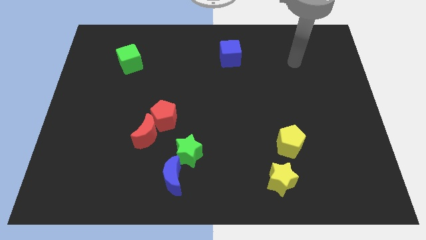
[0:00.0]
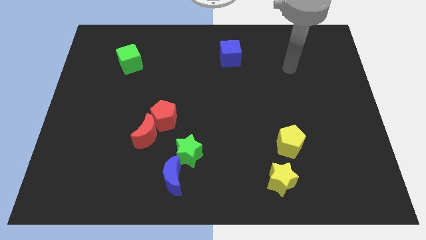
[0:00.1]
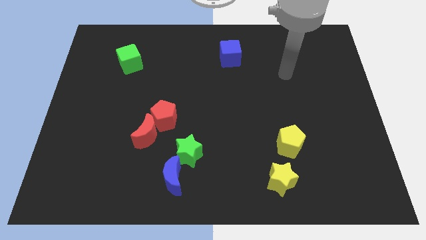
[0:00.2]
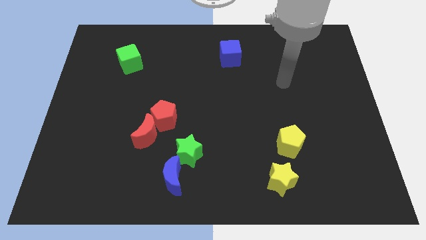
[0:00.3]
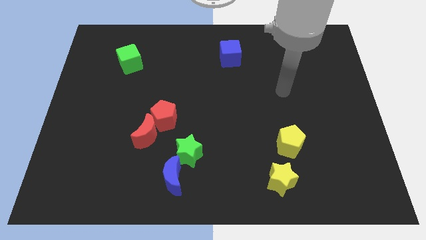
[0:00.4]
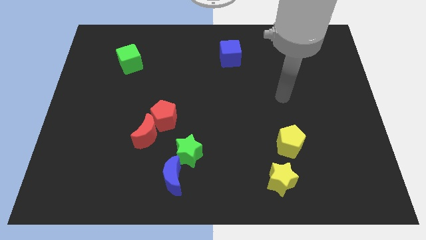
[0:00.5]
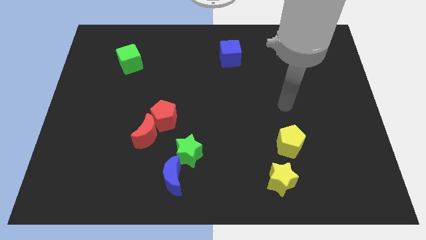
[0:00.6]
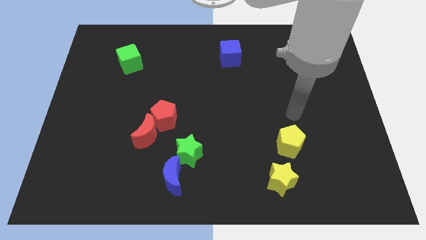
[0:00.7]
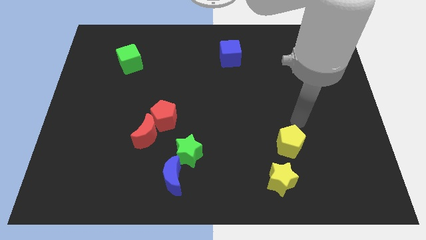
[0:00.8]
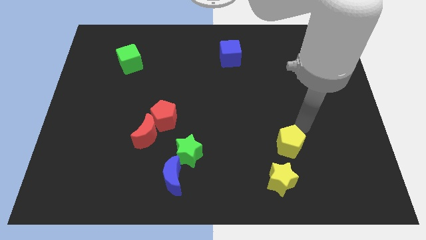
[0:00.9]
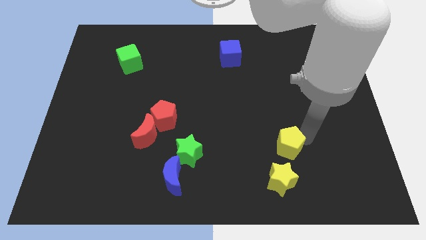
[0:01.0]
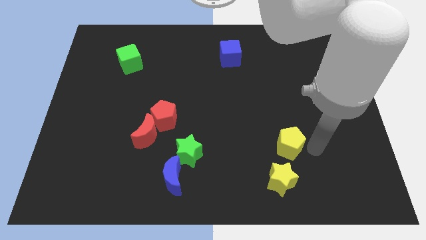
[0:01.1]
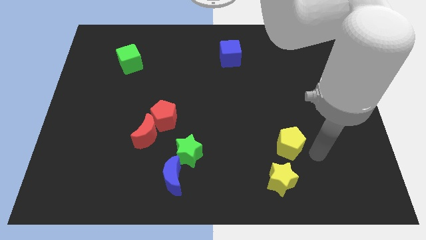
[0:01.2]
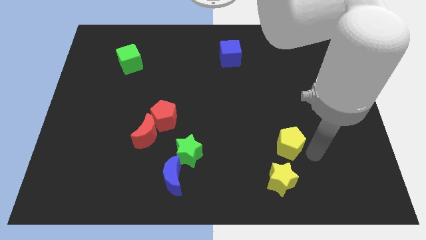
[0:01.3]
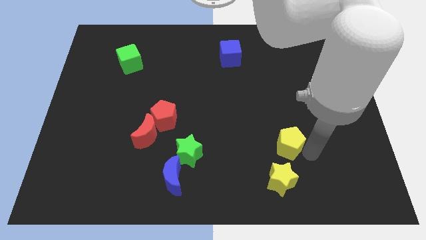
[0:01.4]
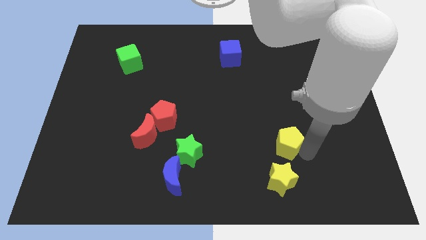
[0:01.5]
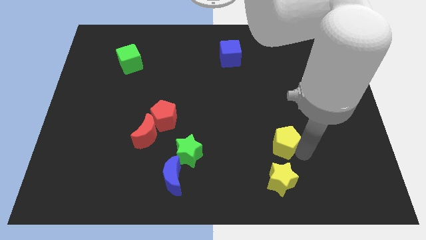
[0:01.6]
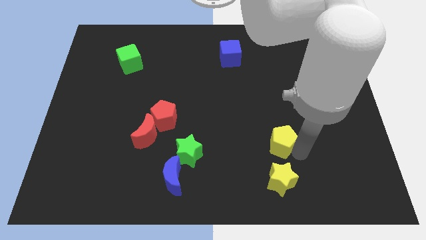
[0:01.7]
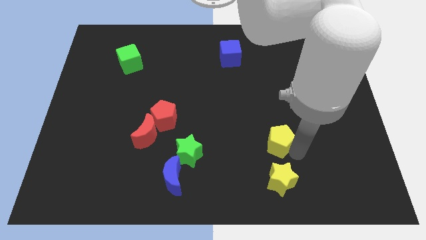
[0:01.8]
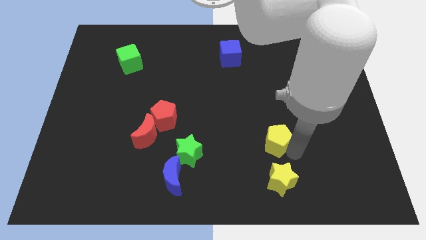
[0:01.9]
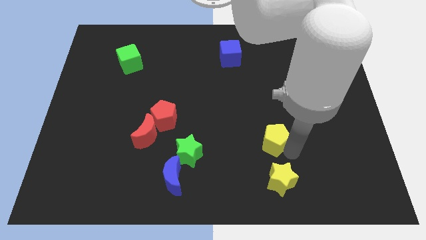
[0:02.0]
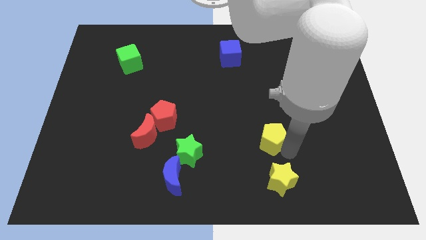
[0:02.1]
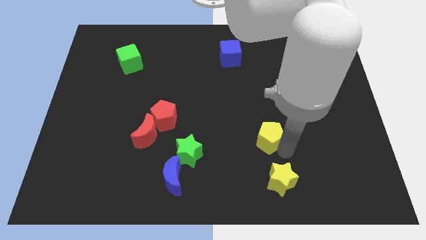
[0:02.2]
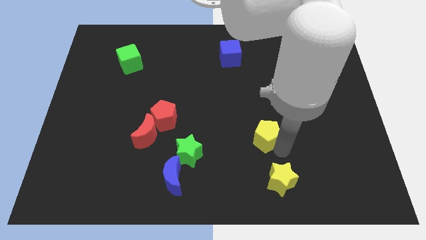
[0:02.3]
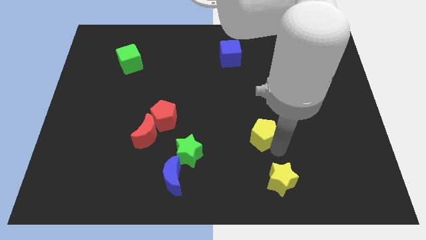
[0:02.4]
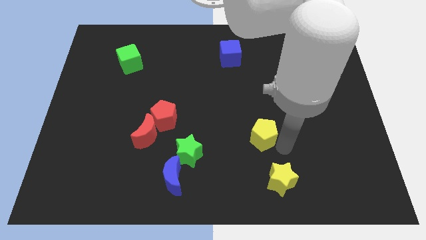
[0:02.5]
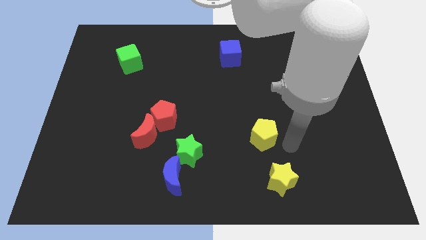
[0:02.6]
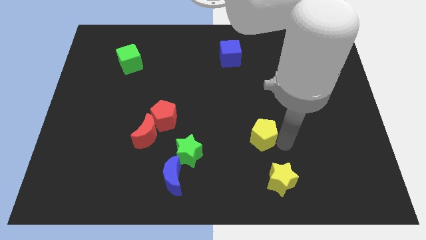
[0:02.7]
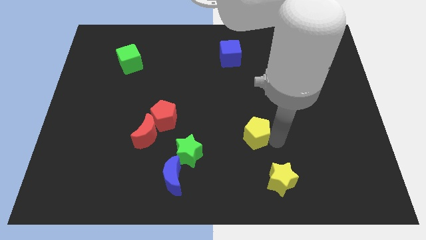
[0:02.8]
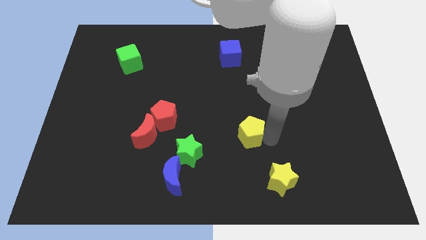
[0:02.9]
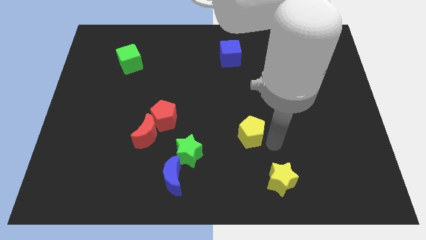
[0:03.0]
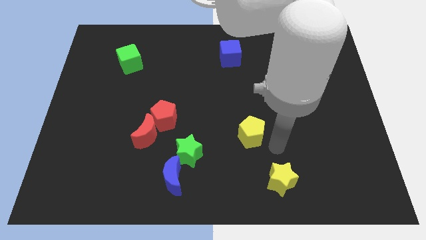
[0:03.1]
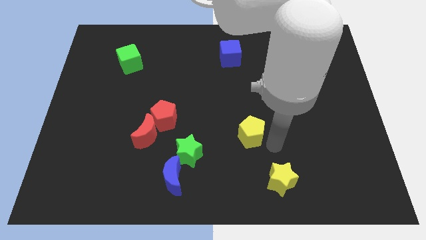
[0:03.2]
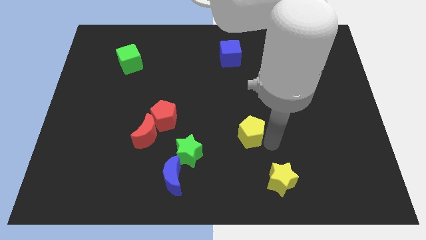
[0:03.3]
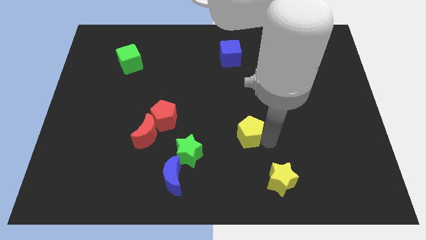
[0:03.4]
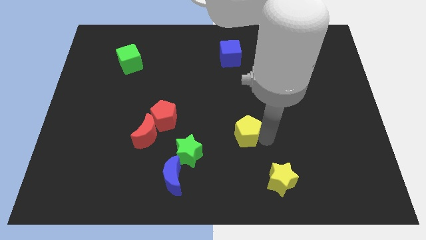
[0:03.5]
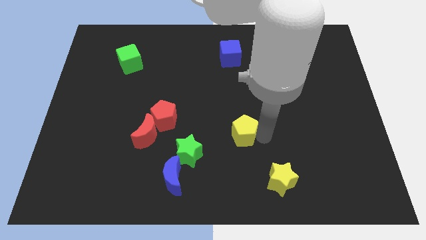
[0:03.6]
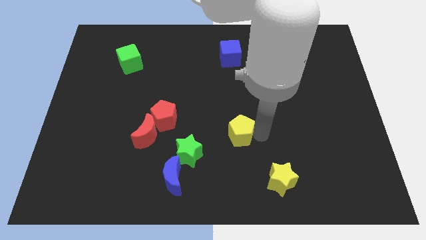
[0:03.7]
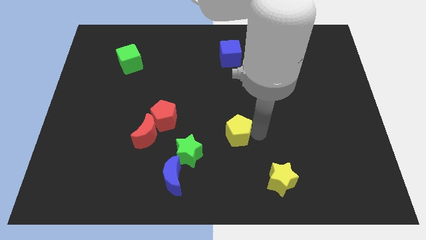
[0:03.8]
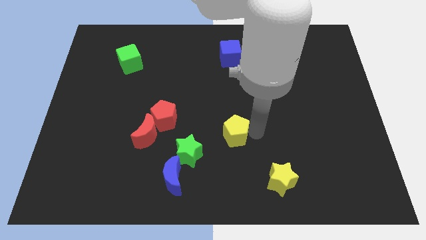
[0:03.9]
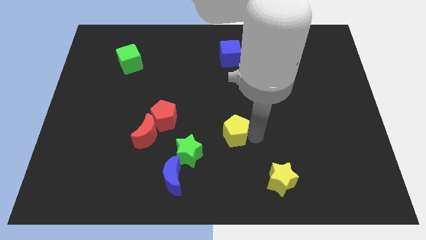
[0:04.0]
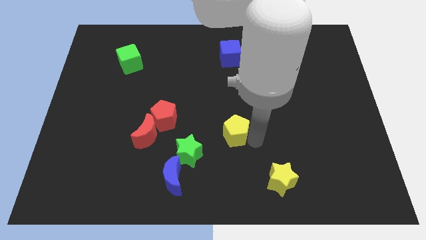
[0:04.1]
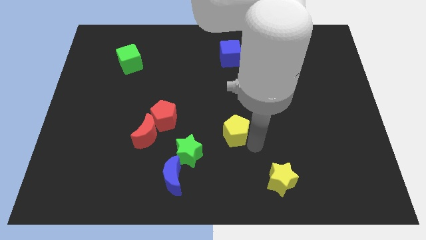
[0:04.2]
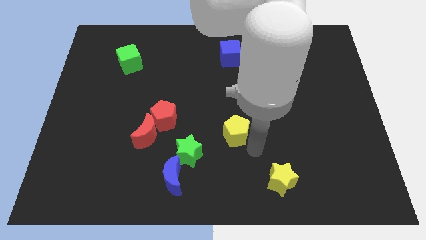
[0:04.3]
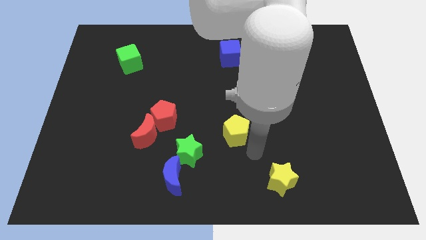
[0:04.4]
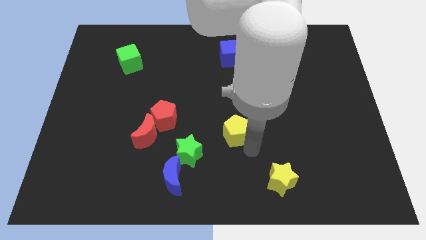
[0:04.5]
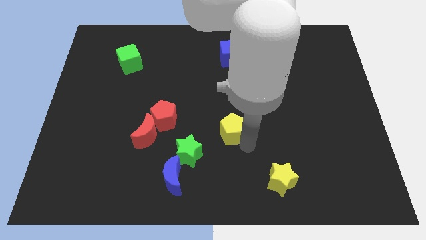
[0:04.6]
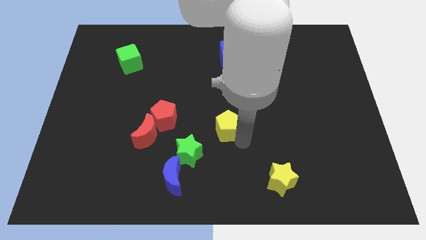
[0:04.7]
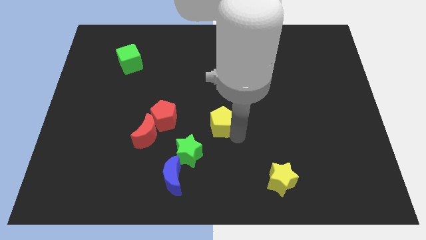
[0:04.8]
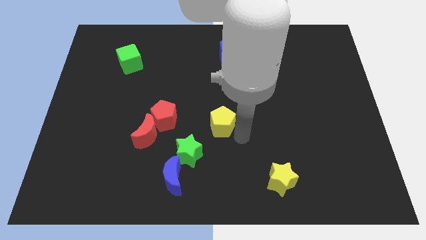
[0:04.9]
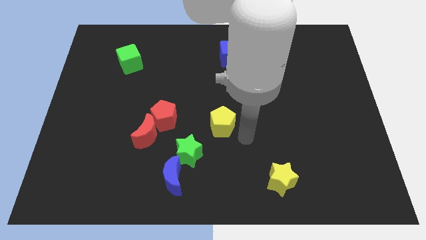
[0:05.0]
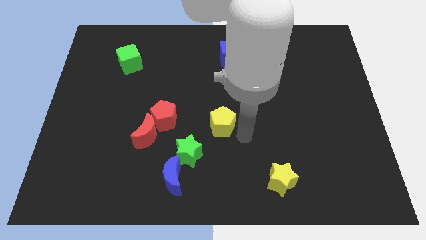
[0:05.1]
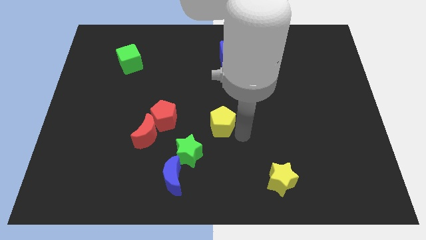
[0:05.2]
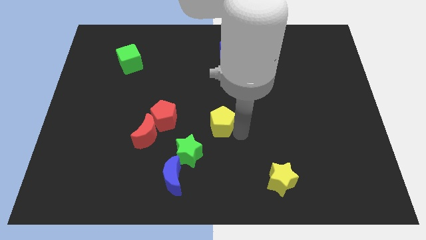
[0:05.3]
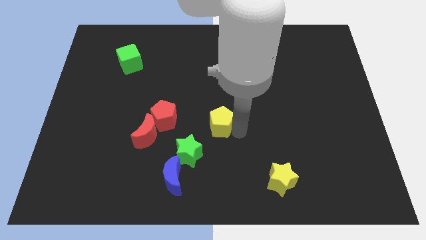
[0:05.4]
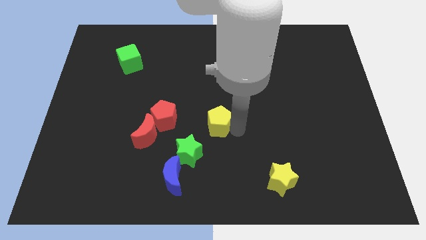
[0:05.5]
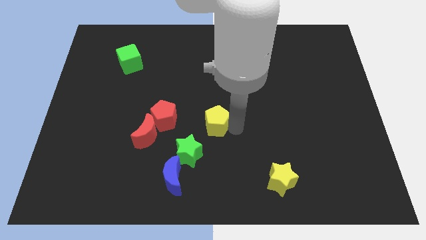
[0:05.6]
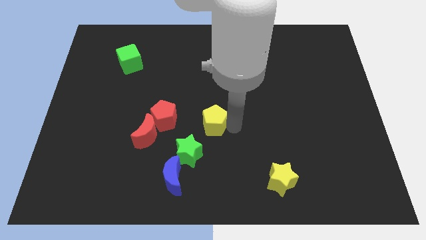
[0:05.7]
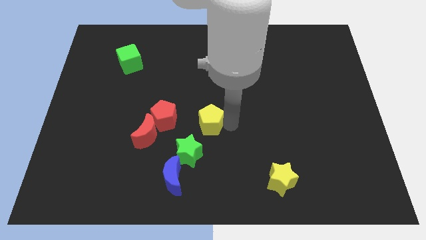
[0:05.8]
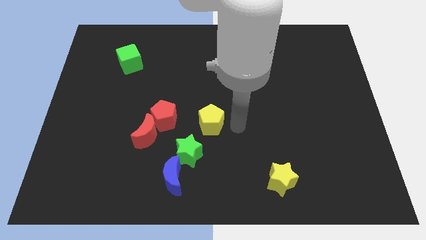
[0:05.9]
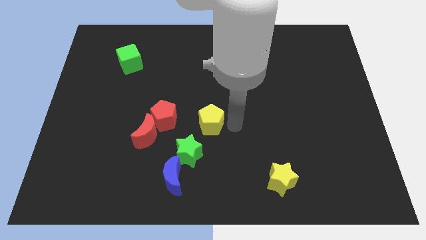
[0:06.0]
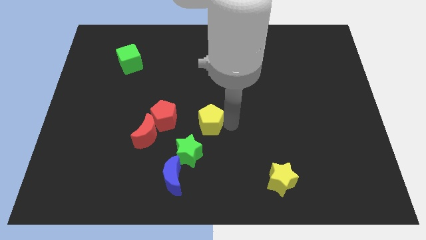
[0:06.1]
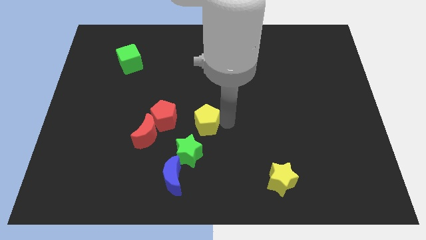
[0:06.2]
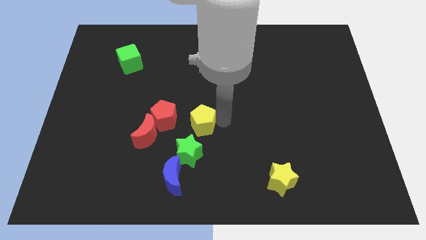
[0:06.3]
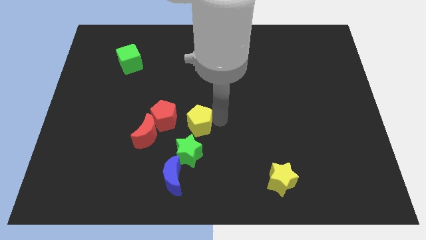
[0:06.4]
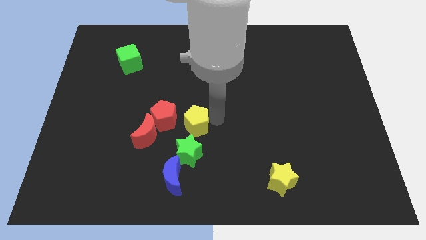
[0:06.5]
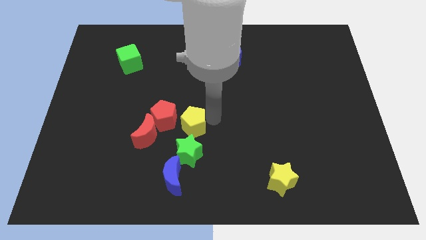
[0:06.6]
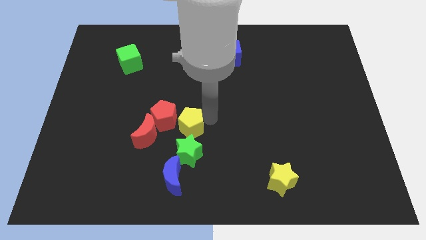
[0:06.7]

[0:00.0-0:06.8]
put the yellow pentagon diagonally up and to the right of the red moon
